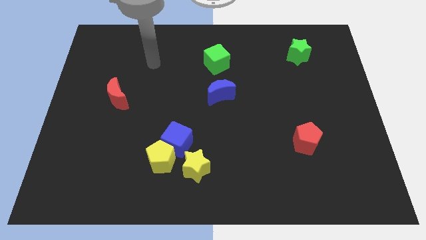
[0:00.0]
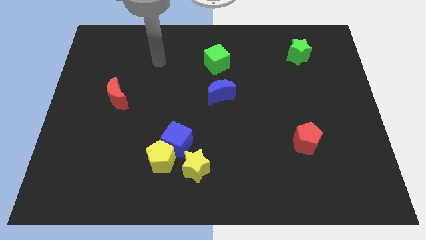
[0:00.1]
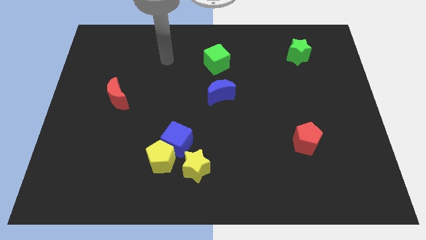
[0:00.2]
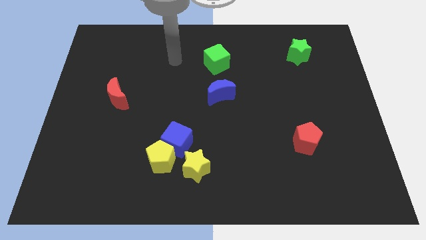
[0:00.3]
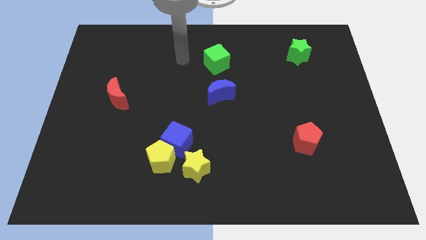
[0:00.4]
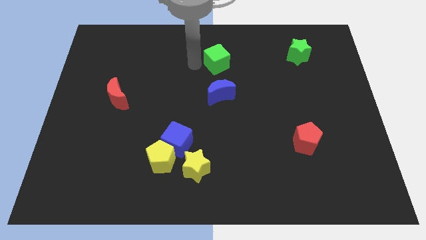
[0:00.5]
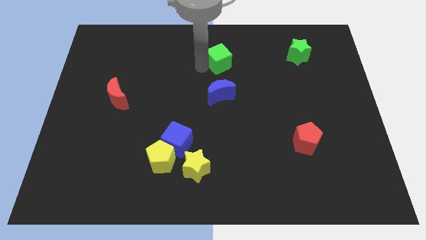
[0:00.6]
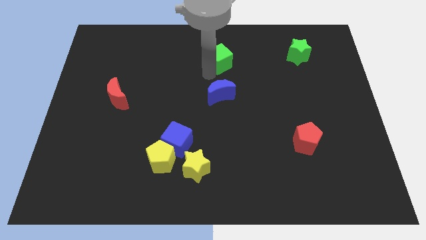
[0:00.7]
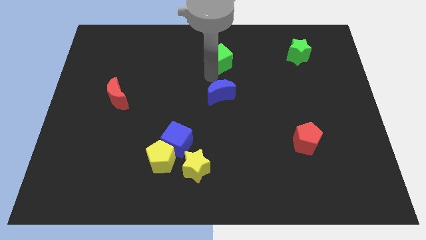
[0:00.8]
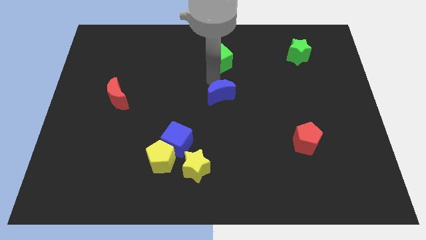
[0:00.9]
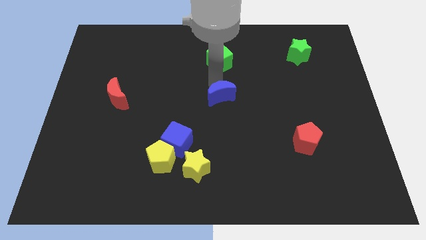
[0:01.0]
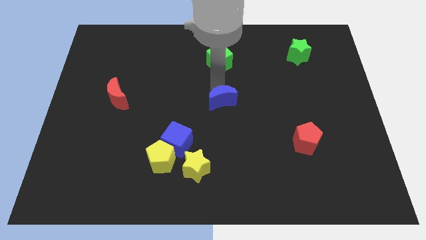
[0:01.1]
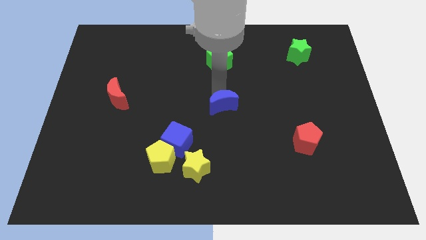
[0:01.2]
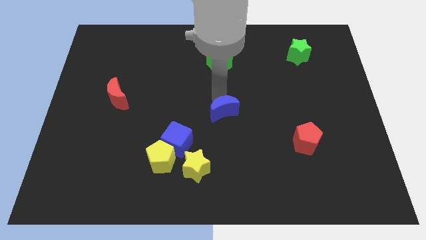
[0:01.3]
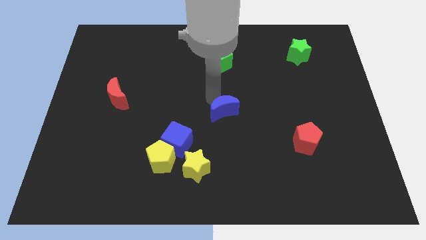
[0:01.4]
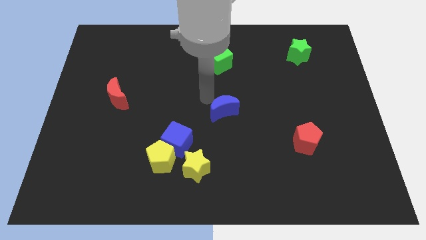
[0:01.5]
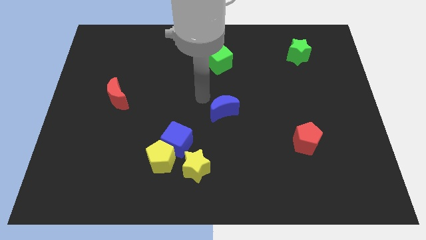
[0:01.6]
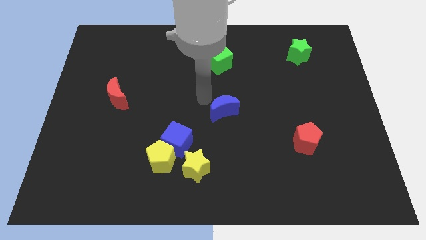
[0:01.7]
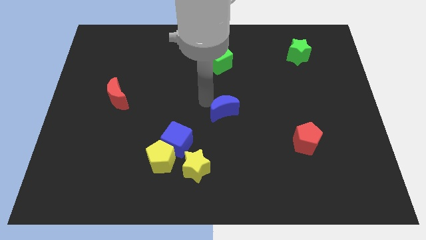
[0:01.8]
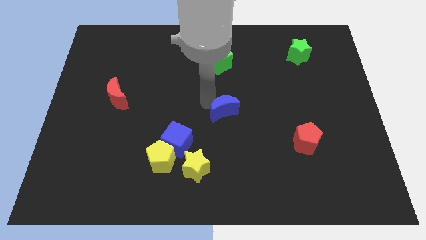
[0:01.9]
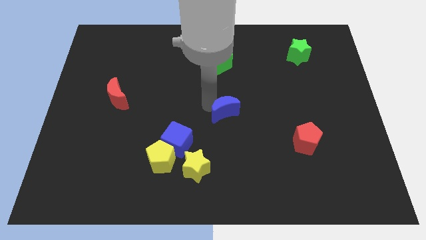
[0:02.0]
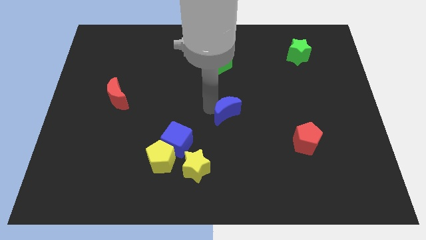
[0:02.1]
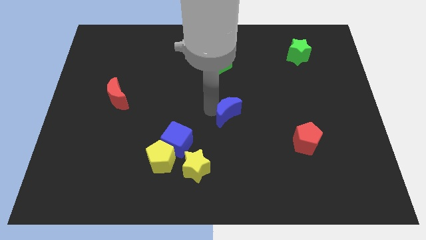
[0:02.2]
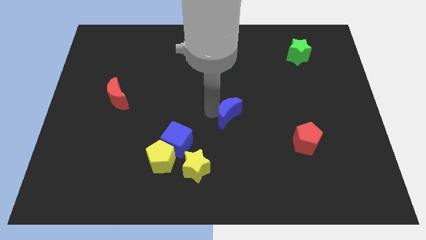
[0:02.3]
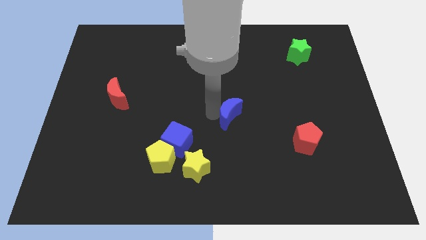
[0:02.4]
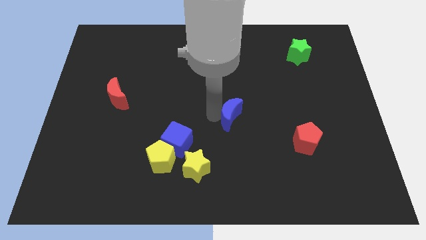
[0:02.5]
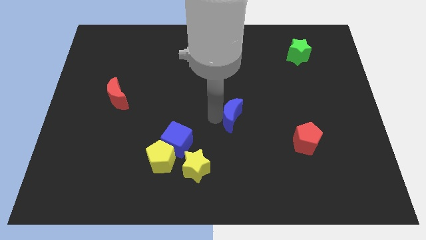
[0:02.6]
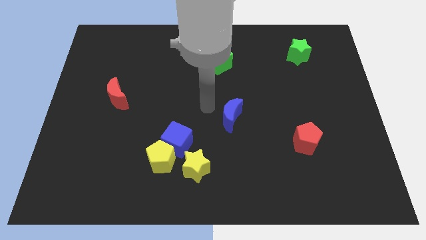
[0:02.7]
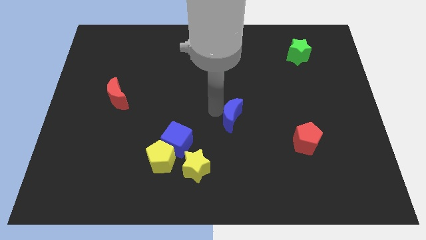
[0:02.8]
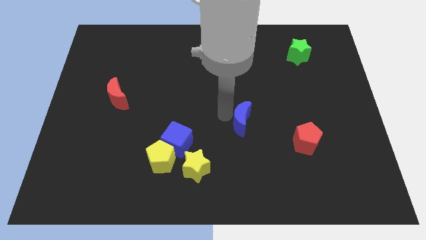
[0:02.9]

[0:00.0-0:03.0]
move the blue moon a little downwards and right

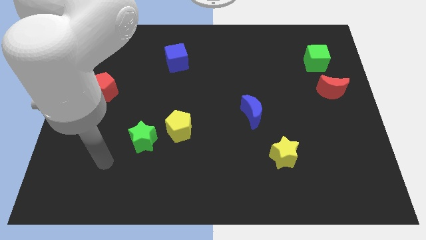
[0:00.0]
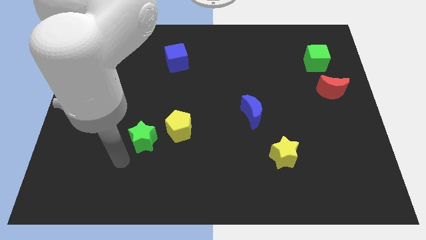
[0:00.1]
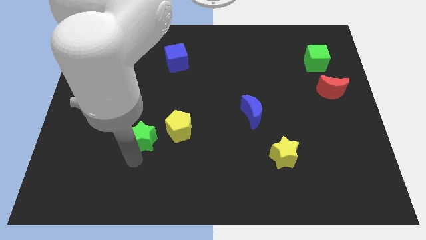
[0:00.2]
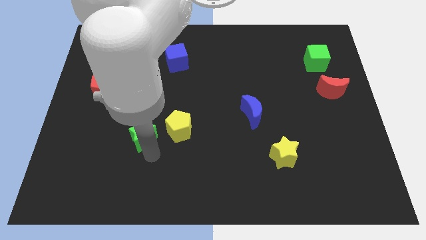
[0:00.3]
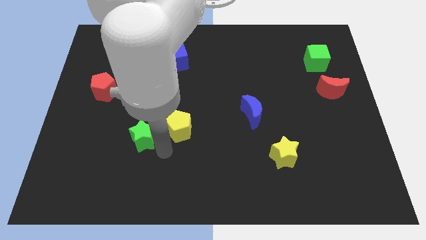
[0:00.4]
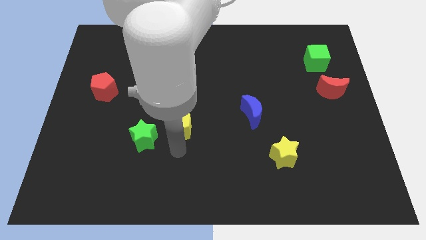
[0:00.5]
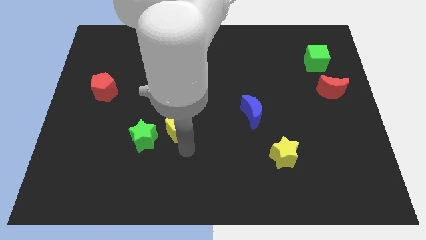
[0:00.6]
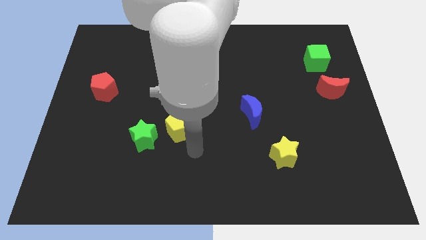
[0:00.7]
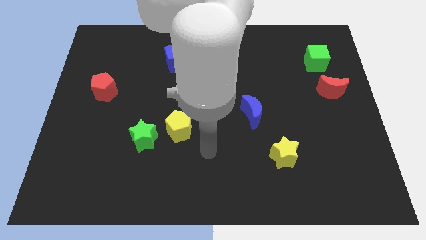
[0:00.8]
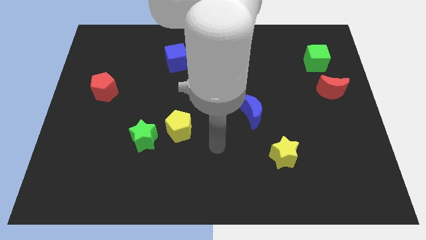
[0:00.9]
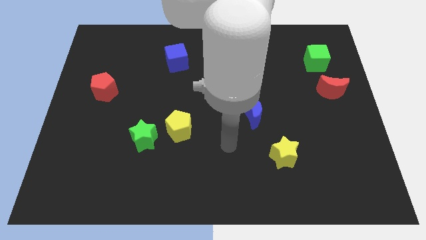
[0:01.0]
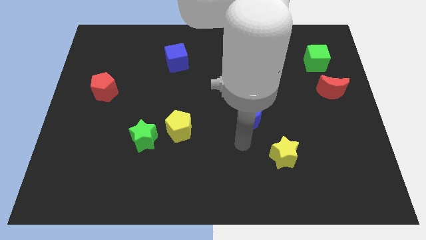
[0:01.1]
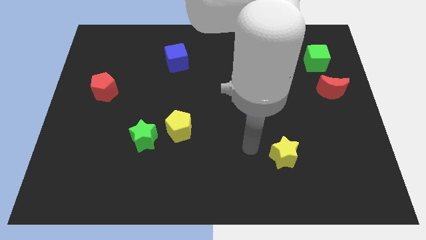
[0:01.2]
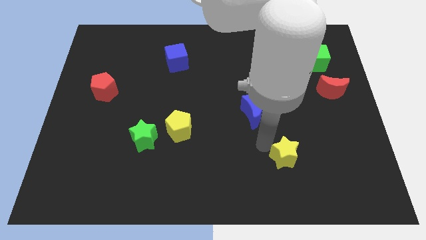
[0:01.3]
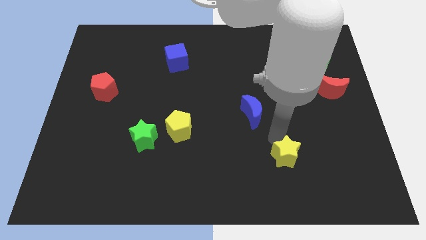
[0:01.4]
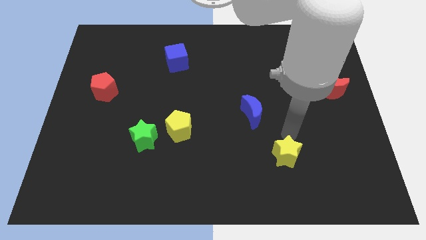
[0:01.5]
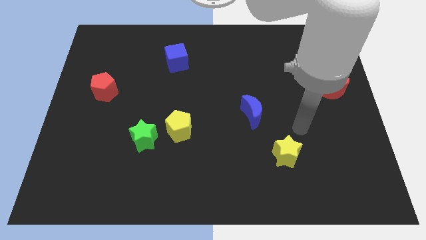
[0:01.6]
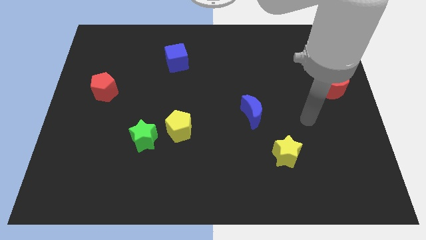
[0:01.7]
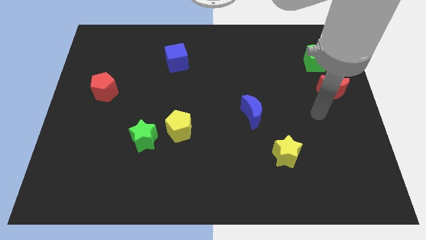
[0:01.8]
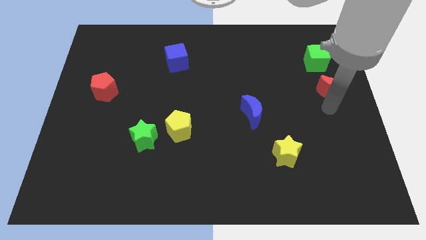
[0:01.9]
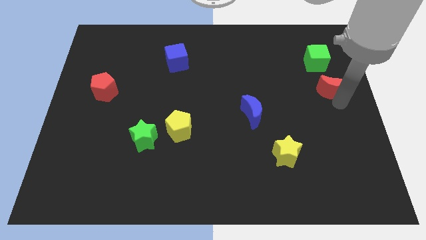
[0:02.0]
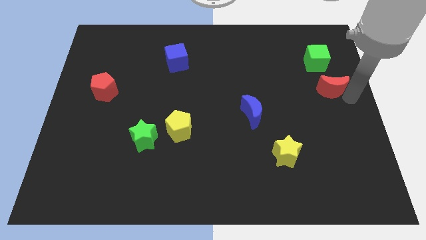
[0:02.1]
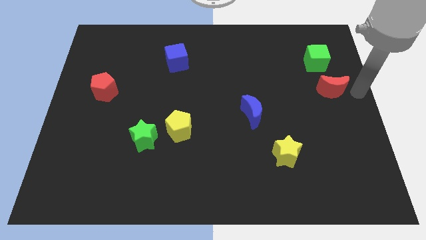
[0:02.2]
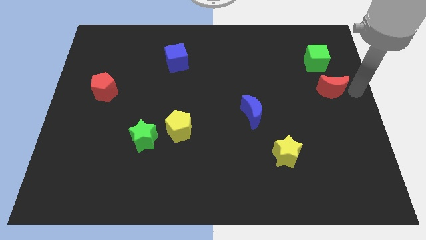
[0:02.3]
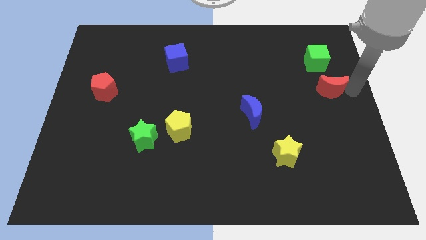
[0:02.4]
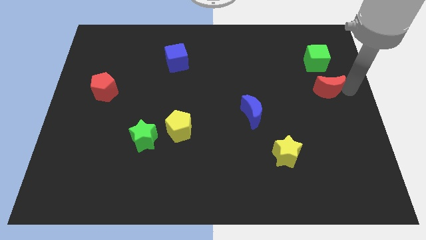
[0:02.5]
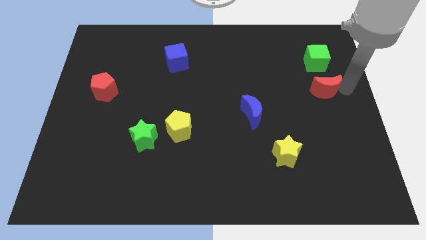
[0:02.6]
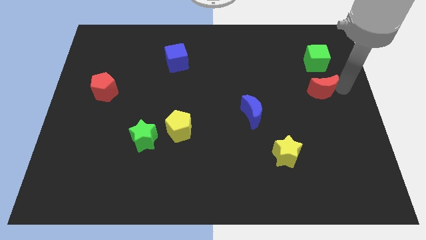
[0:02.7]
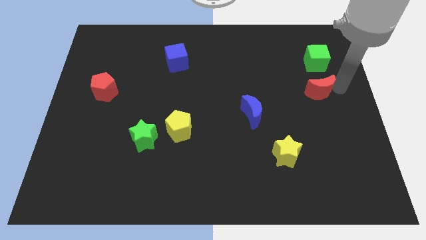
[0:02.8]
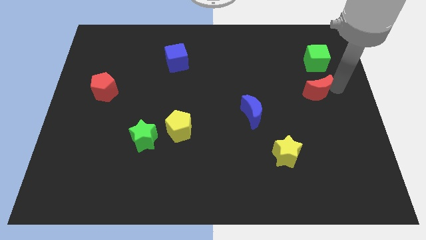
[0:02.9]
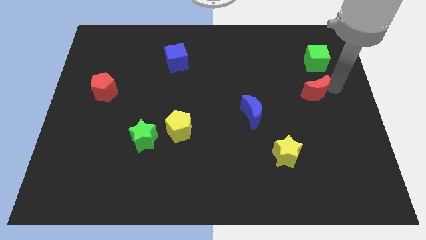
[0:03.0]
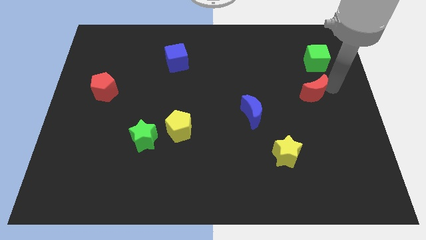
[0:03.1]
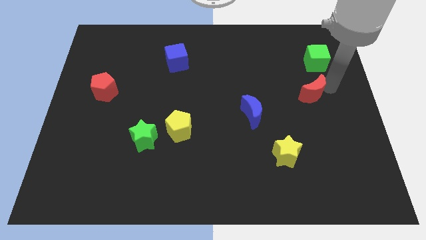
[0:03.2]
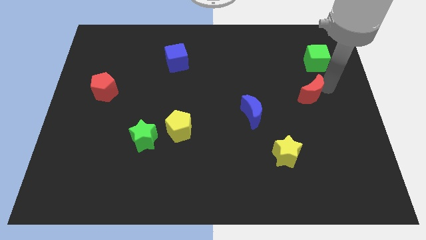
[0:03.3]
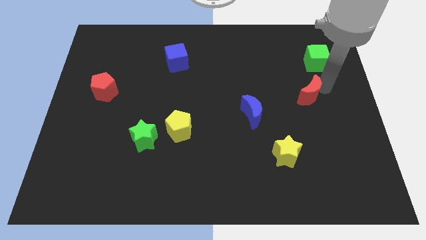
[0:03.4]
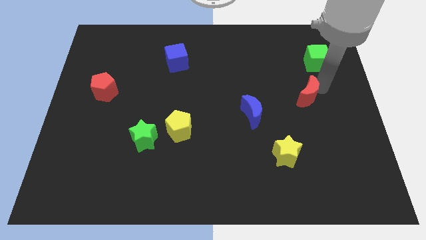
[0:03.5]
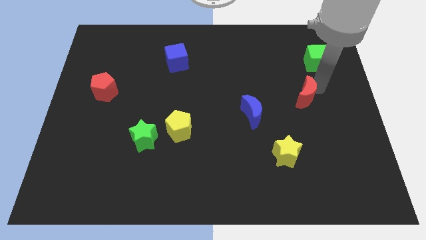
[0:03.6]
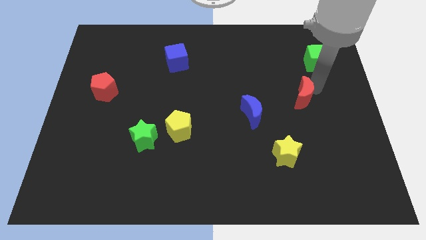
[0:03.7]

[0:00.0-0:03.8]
push the red moon a bit left

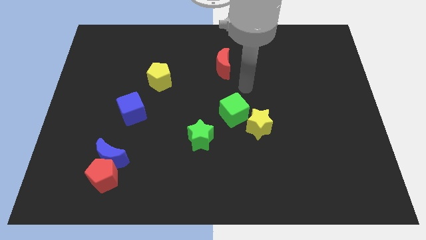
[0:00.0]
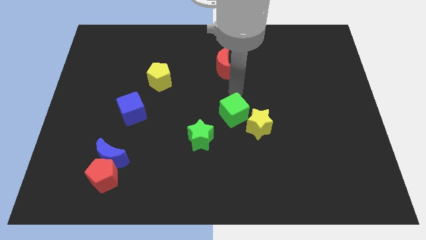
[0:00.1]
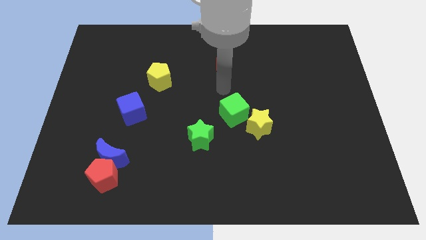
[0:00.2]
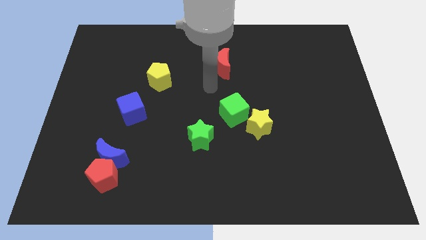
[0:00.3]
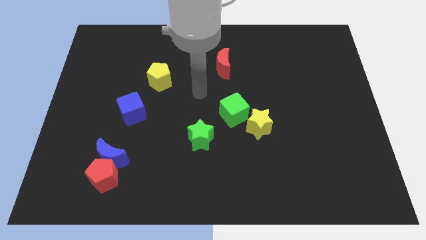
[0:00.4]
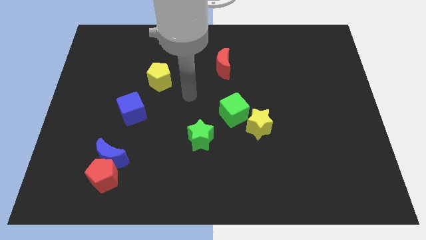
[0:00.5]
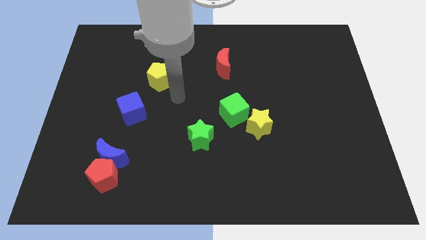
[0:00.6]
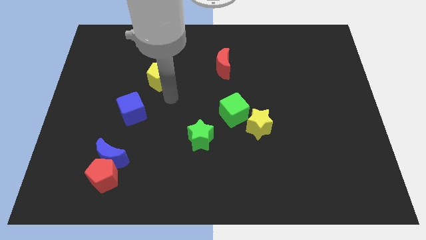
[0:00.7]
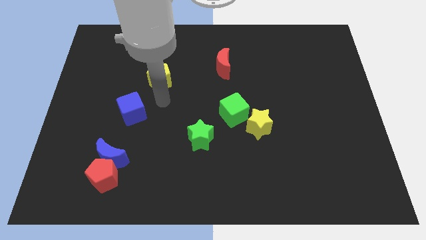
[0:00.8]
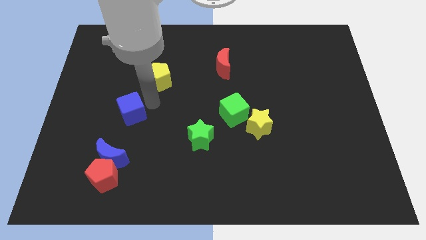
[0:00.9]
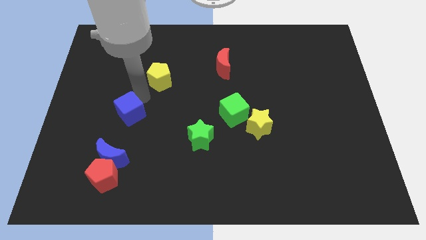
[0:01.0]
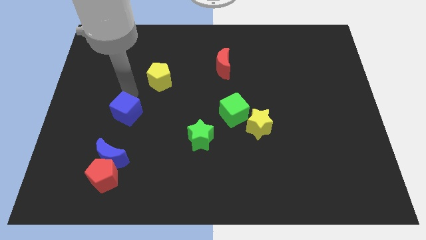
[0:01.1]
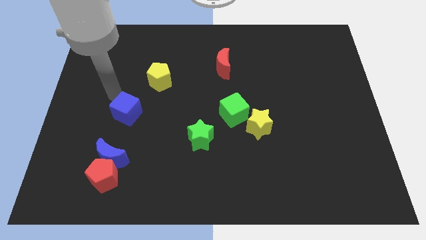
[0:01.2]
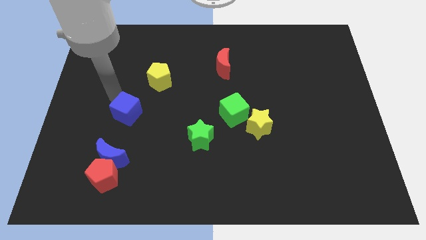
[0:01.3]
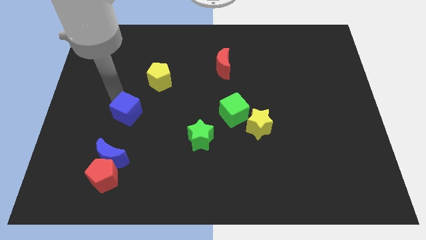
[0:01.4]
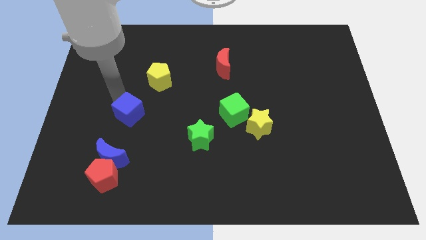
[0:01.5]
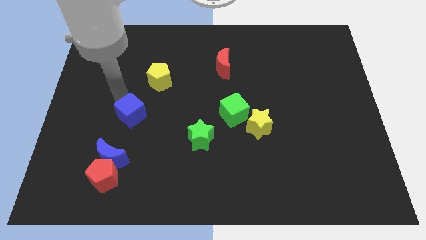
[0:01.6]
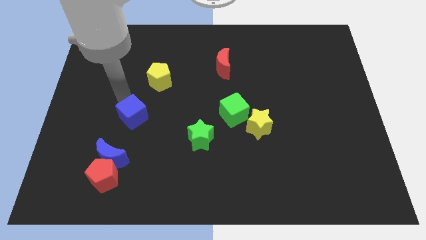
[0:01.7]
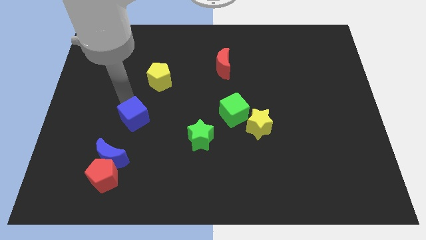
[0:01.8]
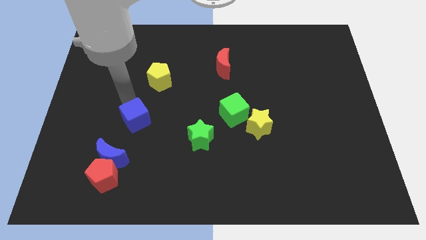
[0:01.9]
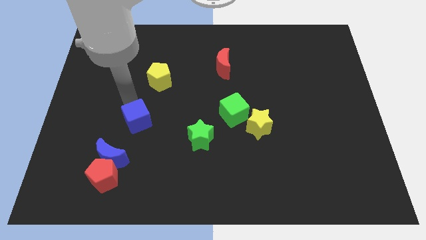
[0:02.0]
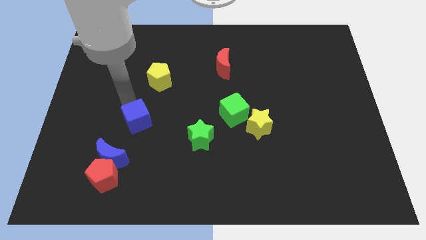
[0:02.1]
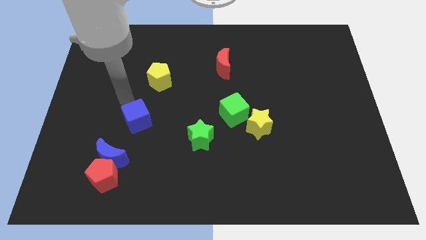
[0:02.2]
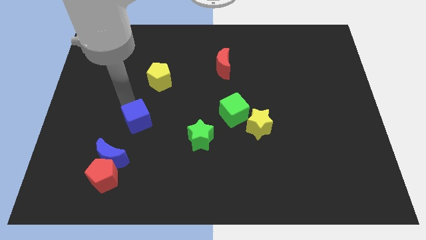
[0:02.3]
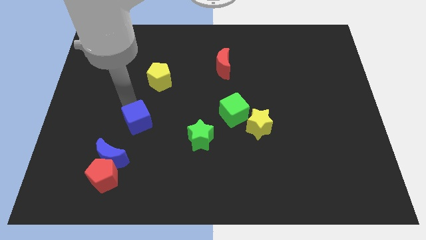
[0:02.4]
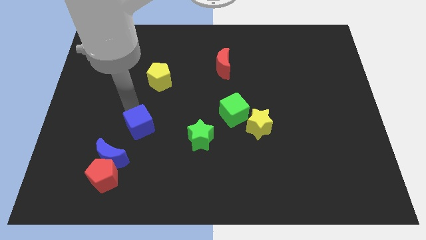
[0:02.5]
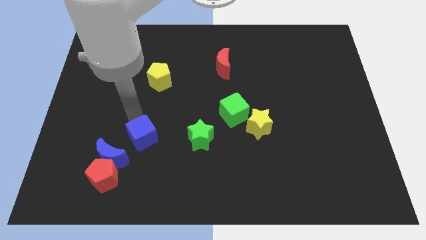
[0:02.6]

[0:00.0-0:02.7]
move the blue cube diagonally downwards and right a little
